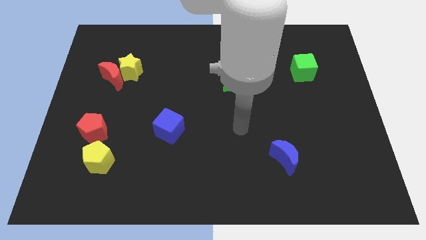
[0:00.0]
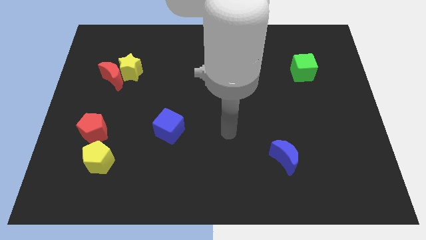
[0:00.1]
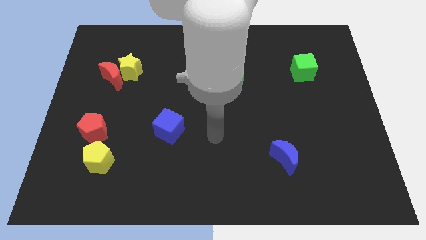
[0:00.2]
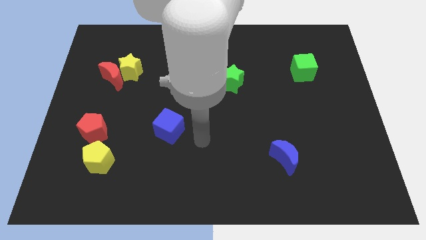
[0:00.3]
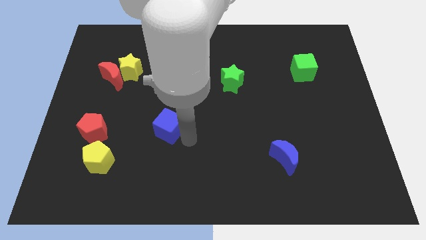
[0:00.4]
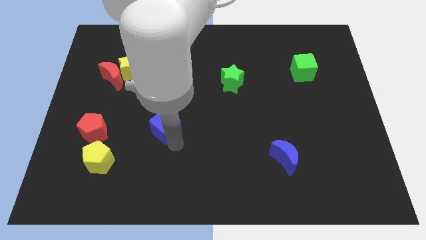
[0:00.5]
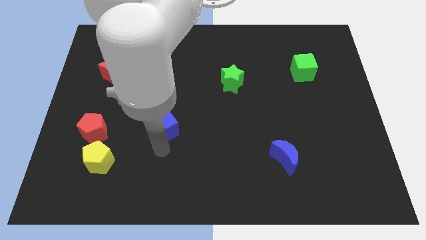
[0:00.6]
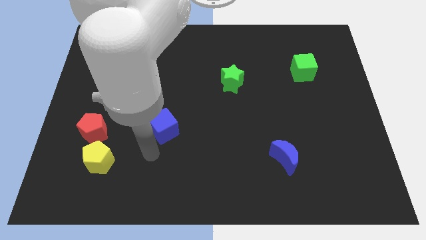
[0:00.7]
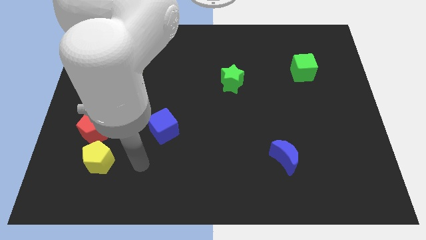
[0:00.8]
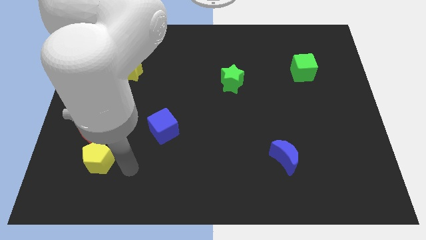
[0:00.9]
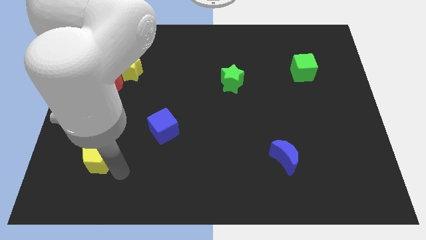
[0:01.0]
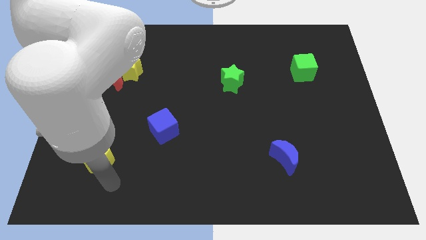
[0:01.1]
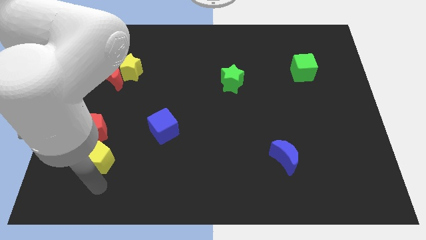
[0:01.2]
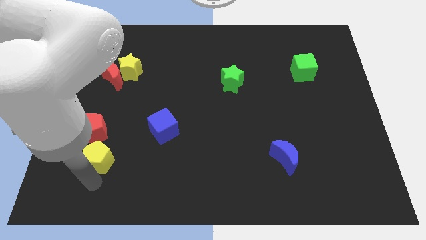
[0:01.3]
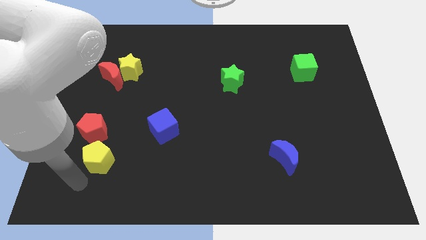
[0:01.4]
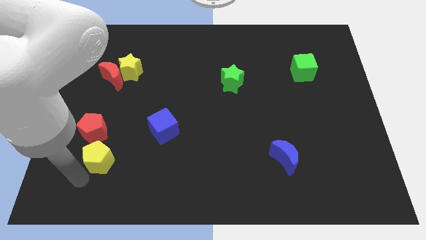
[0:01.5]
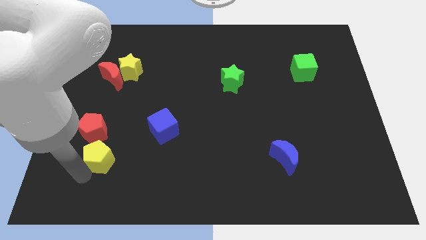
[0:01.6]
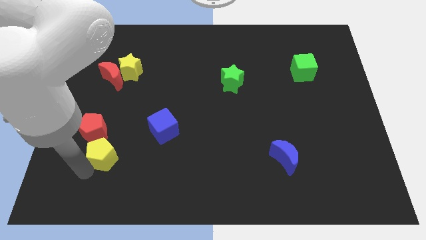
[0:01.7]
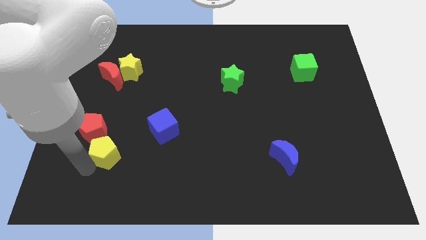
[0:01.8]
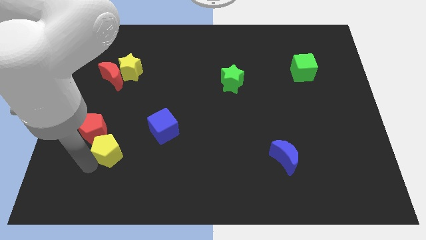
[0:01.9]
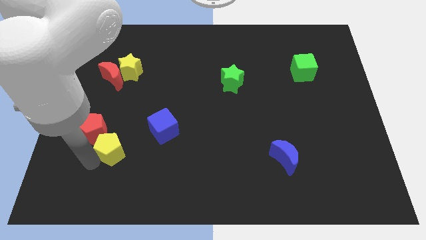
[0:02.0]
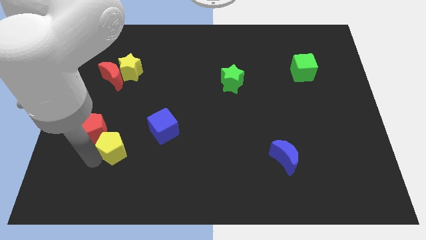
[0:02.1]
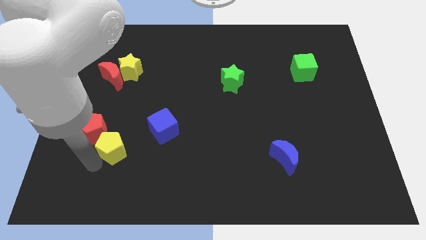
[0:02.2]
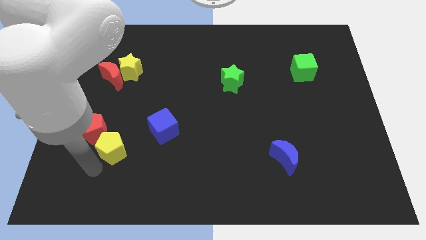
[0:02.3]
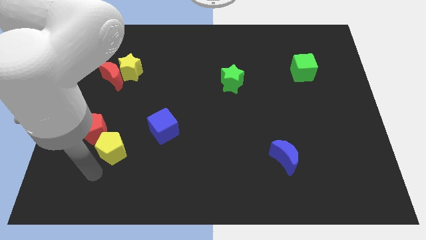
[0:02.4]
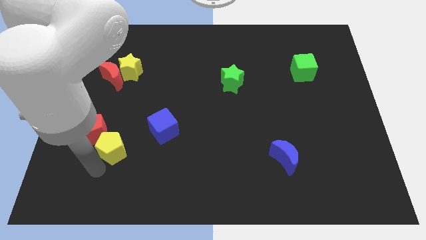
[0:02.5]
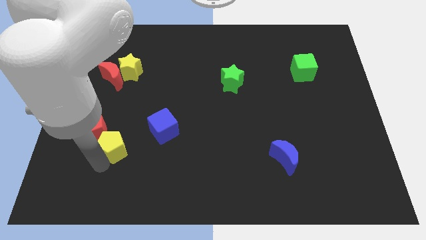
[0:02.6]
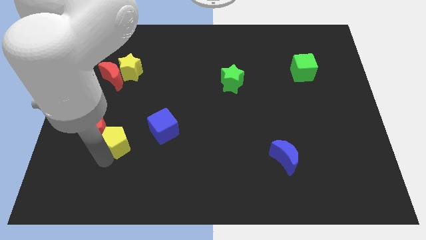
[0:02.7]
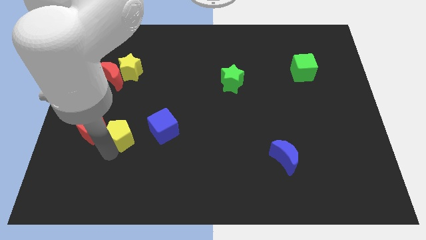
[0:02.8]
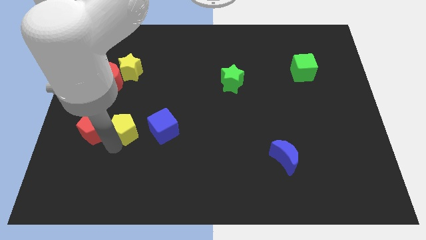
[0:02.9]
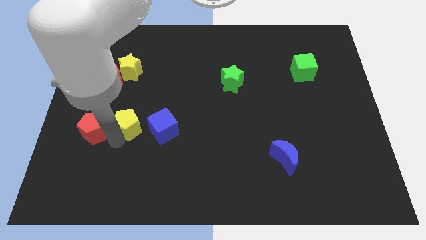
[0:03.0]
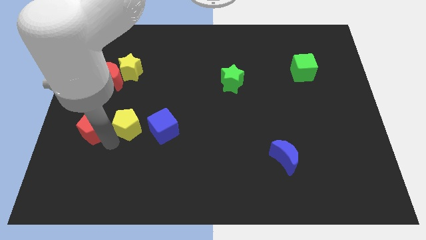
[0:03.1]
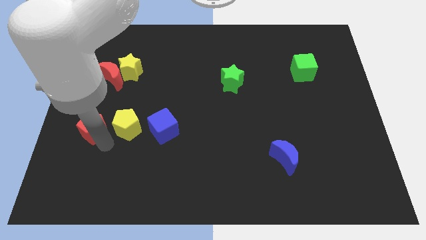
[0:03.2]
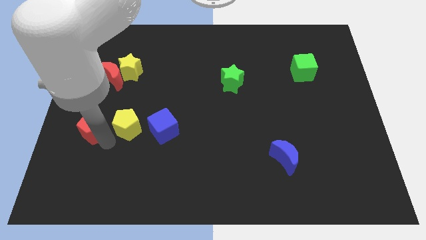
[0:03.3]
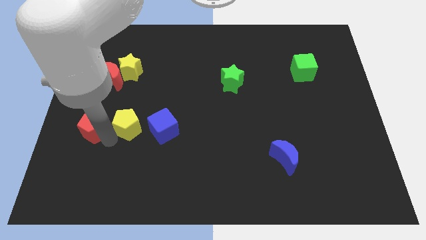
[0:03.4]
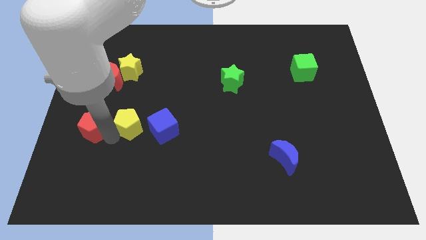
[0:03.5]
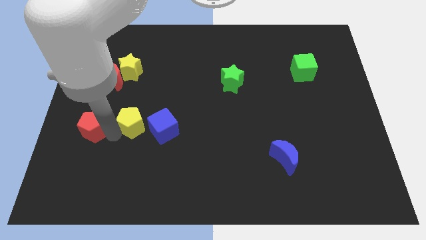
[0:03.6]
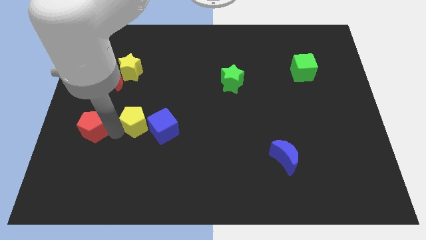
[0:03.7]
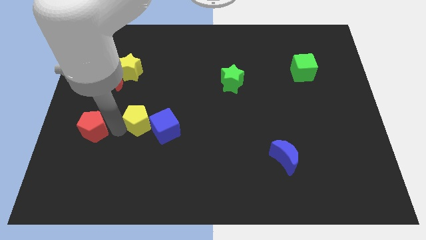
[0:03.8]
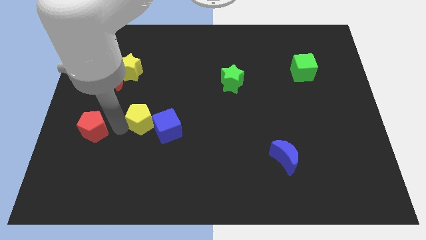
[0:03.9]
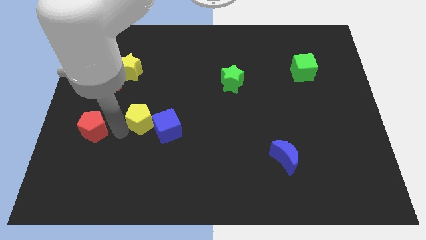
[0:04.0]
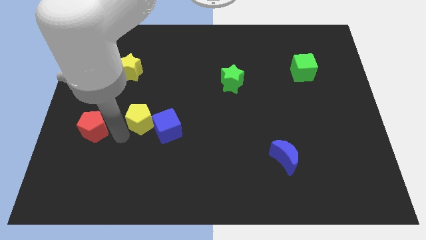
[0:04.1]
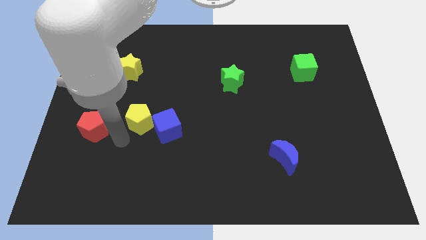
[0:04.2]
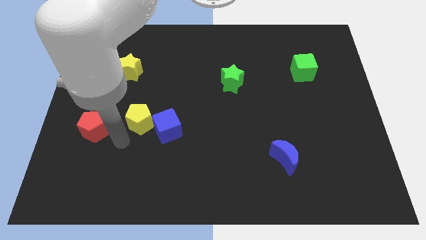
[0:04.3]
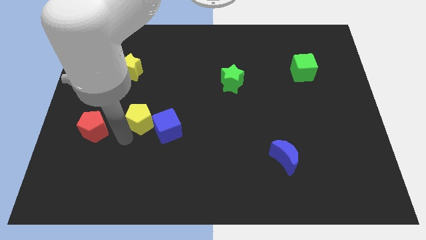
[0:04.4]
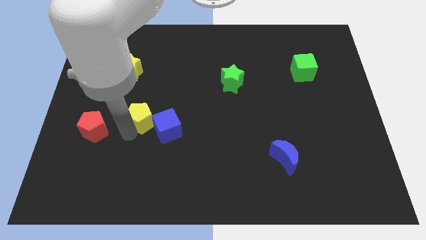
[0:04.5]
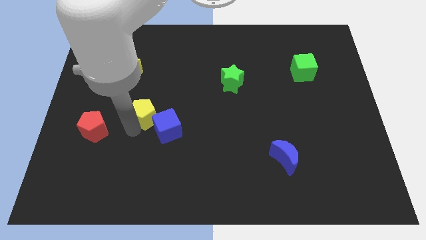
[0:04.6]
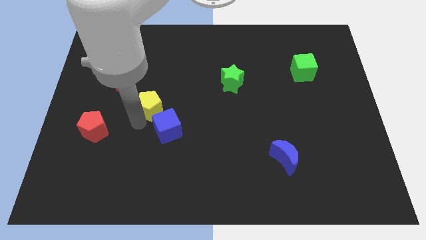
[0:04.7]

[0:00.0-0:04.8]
move the yellow pentagon above the blue cube

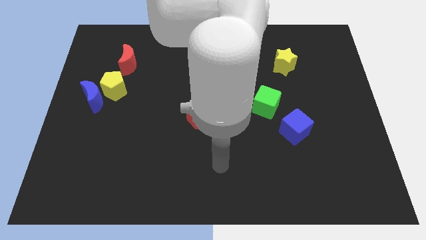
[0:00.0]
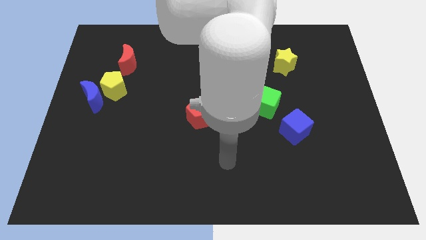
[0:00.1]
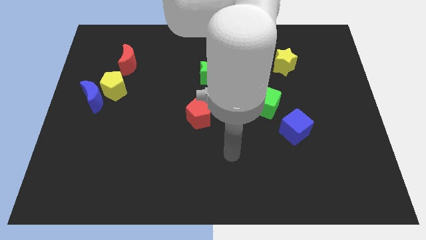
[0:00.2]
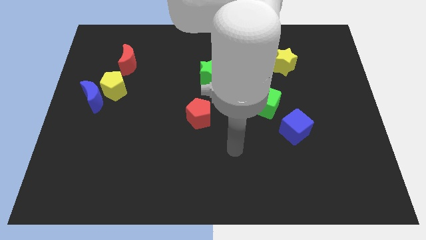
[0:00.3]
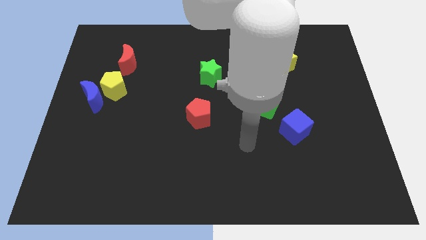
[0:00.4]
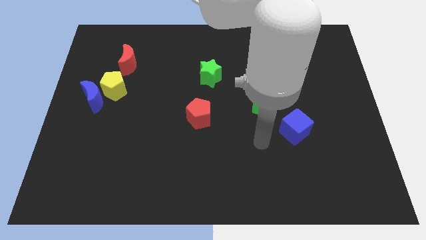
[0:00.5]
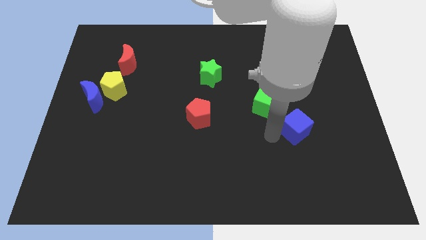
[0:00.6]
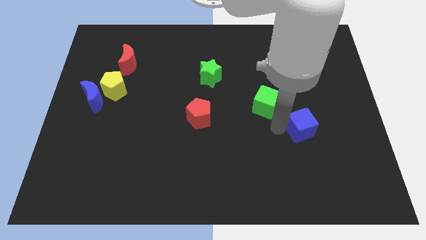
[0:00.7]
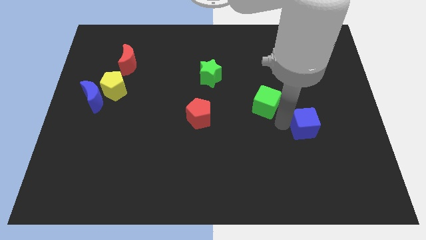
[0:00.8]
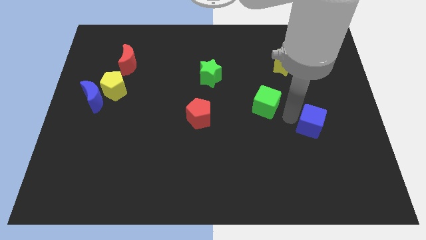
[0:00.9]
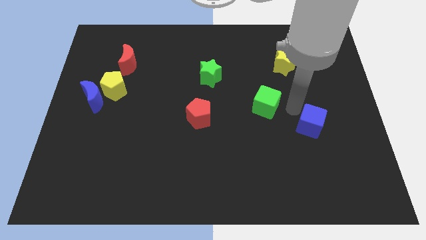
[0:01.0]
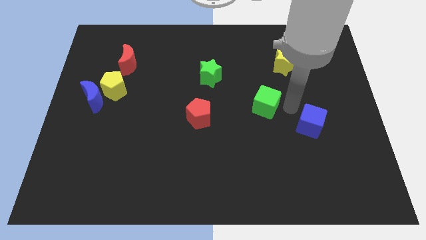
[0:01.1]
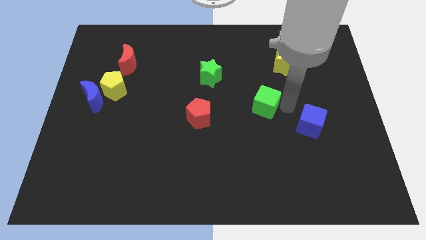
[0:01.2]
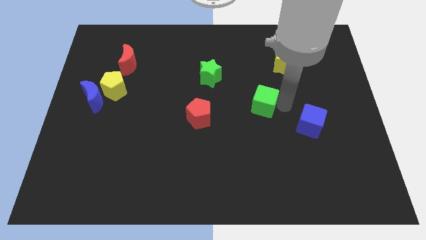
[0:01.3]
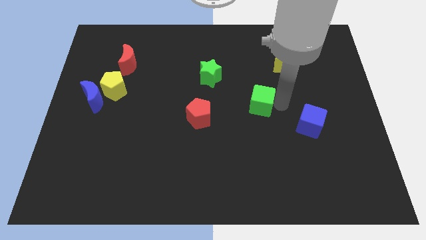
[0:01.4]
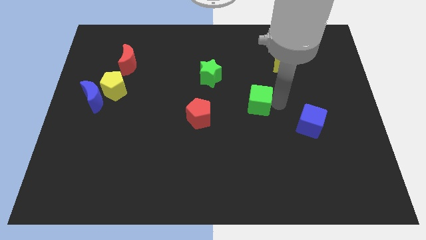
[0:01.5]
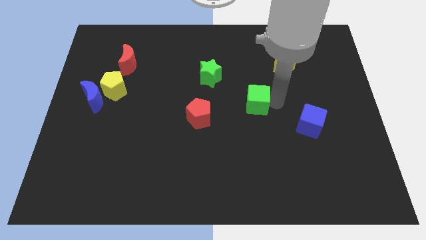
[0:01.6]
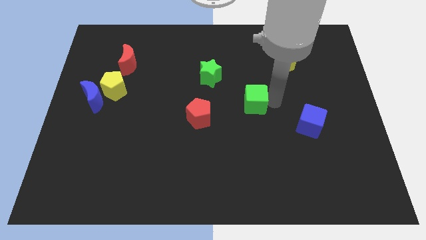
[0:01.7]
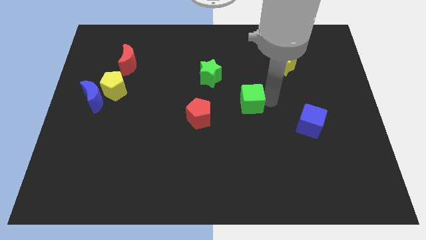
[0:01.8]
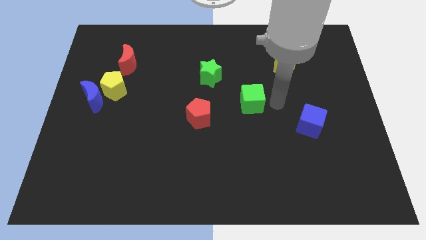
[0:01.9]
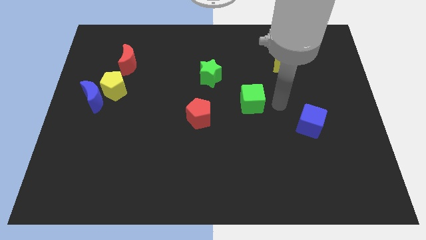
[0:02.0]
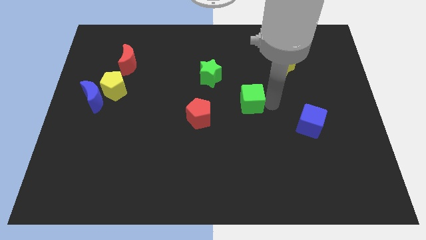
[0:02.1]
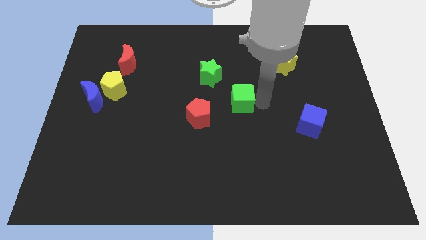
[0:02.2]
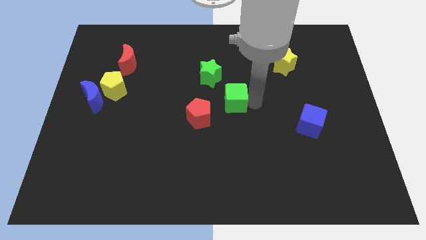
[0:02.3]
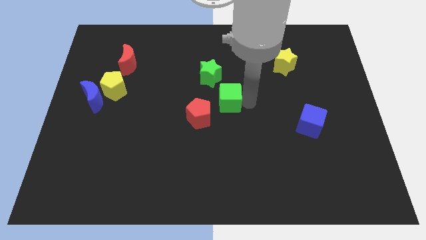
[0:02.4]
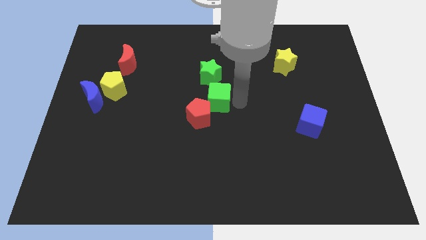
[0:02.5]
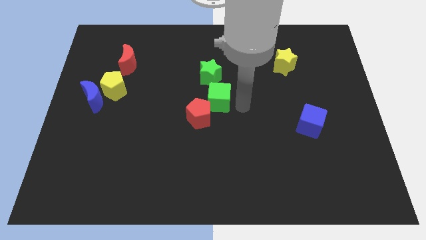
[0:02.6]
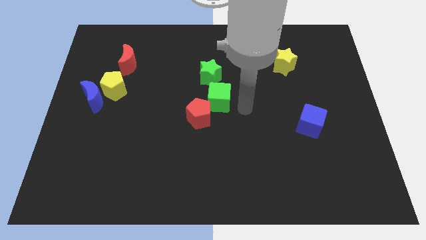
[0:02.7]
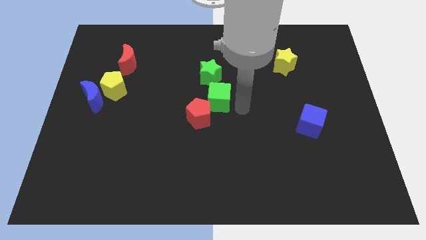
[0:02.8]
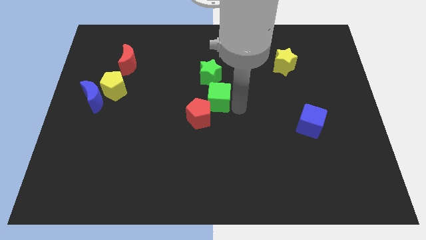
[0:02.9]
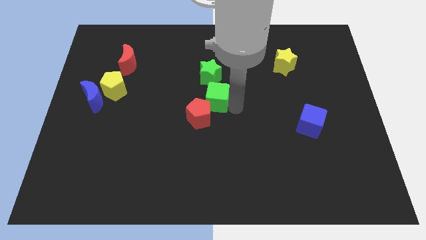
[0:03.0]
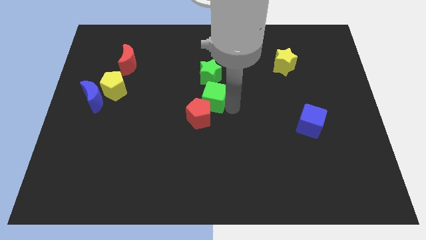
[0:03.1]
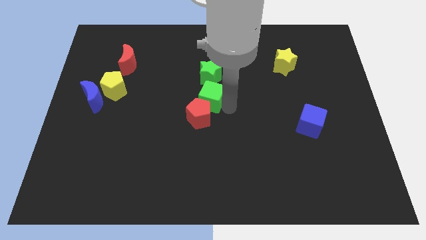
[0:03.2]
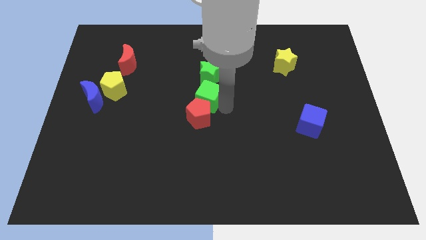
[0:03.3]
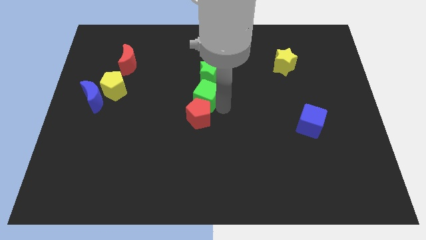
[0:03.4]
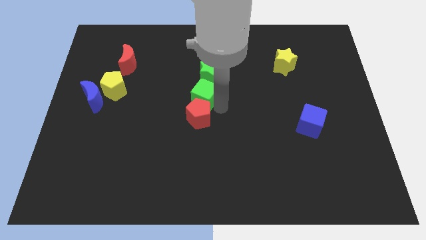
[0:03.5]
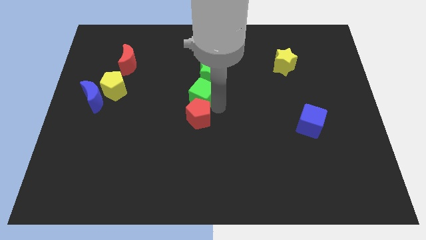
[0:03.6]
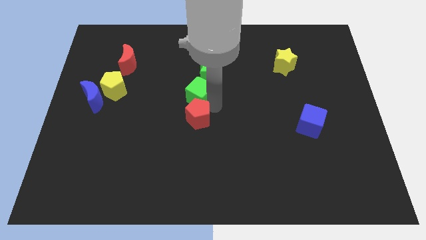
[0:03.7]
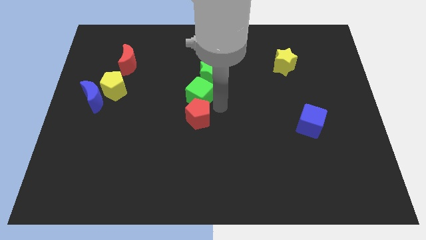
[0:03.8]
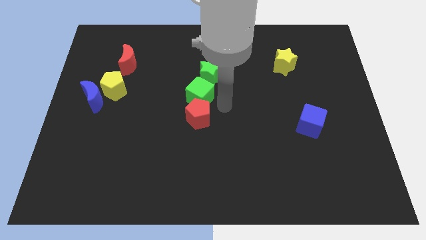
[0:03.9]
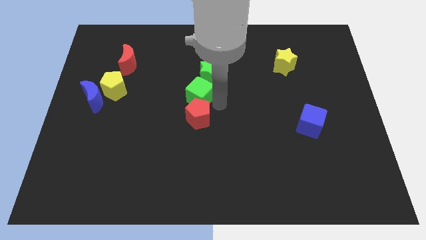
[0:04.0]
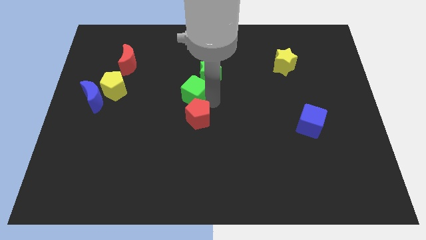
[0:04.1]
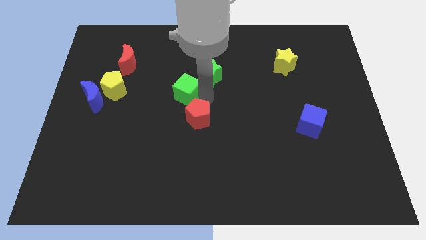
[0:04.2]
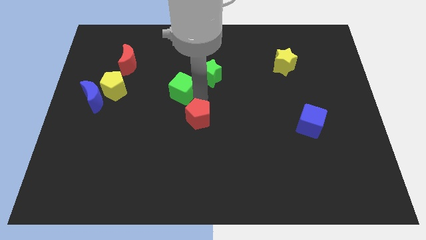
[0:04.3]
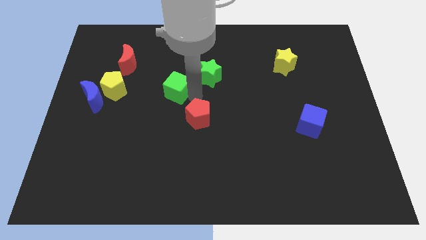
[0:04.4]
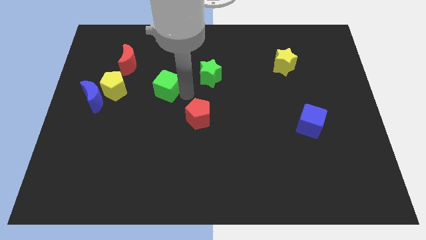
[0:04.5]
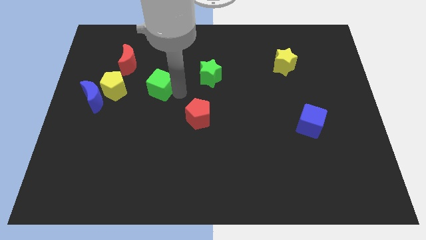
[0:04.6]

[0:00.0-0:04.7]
slide the green cube to the bottom right side of the red moon
